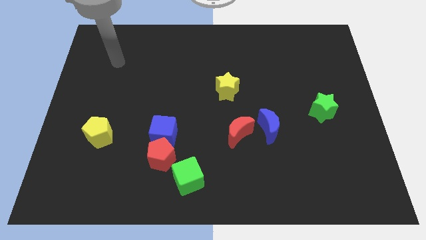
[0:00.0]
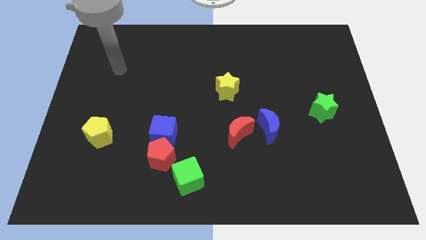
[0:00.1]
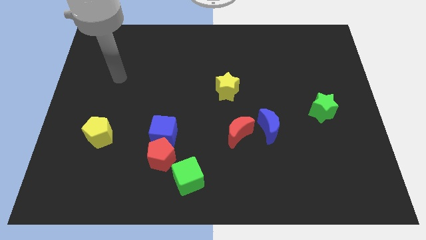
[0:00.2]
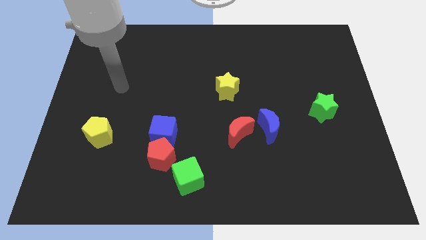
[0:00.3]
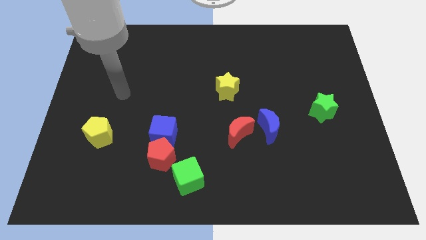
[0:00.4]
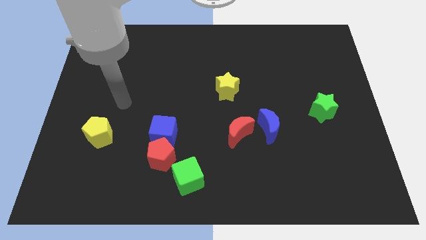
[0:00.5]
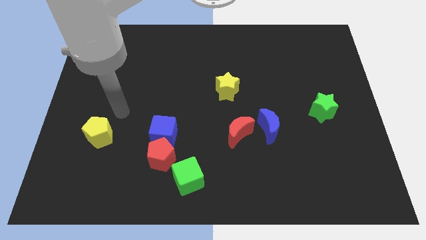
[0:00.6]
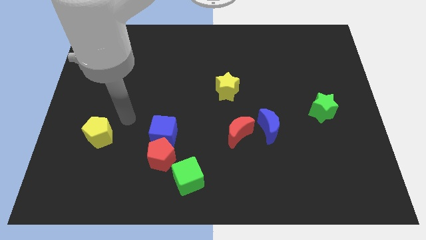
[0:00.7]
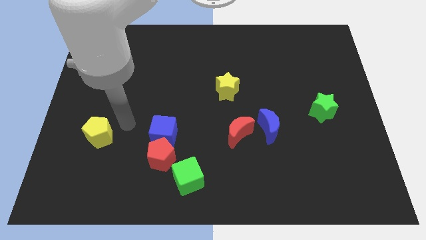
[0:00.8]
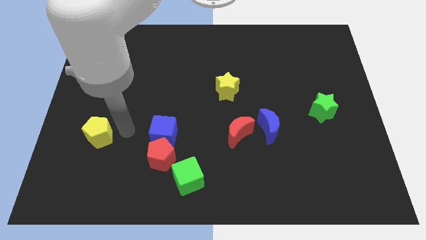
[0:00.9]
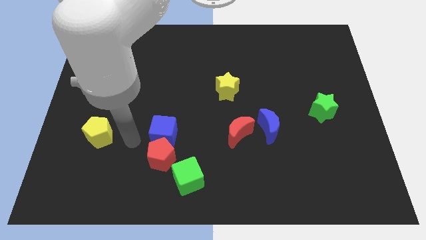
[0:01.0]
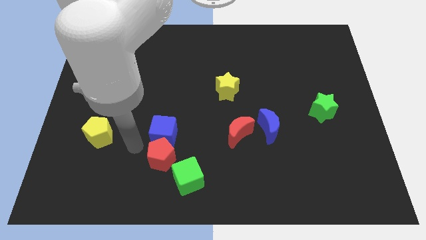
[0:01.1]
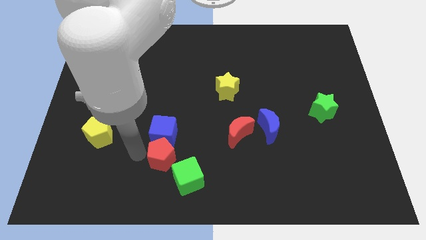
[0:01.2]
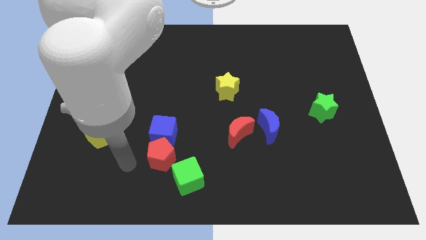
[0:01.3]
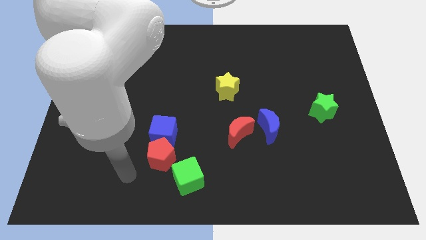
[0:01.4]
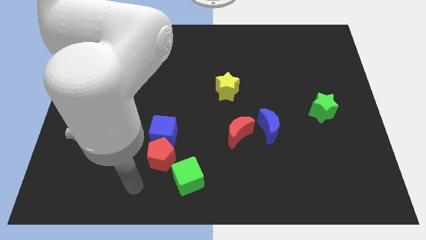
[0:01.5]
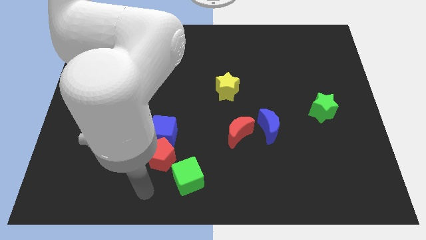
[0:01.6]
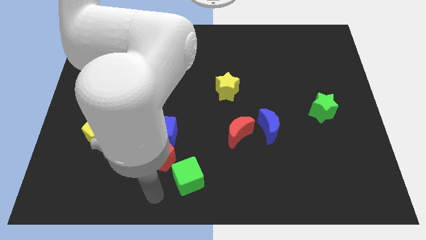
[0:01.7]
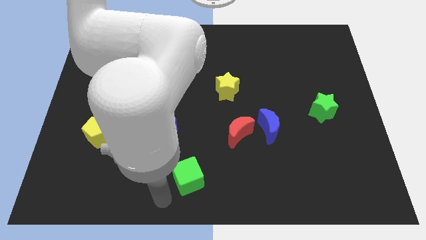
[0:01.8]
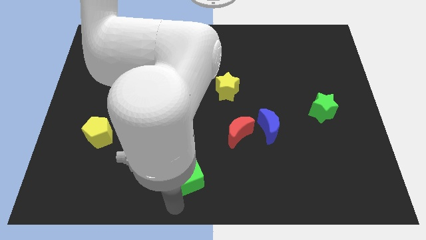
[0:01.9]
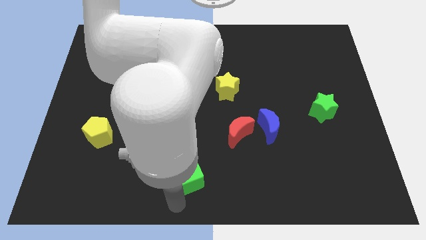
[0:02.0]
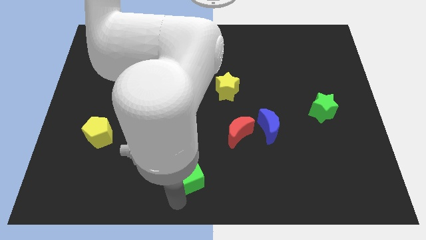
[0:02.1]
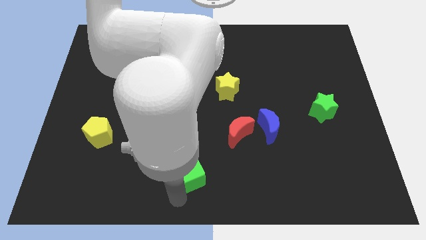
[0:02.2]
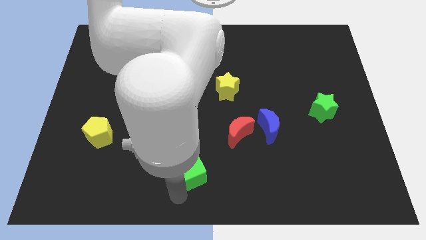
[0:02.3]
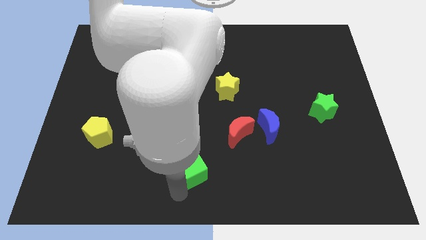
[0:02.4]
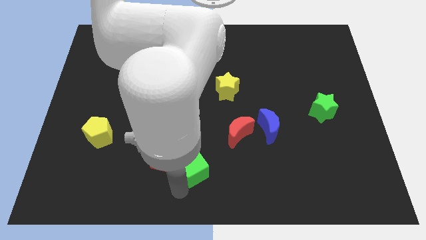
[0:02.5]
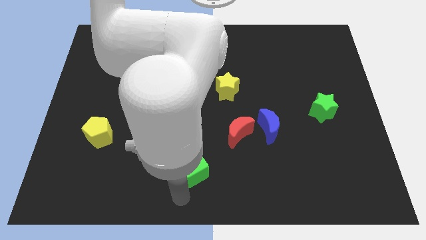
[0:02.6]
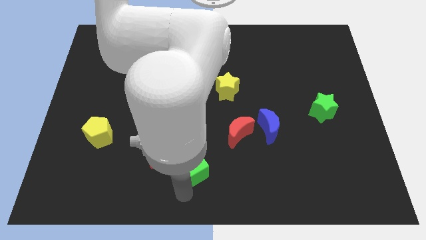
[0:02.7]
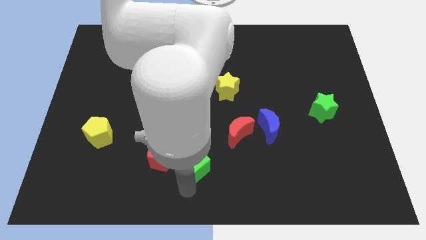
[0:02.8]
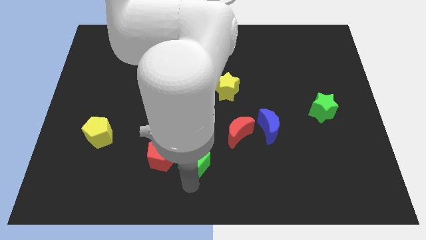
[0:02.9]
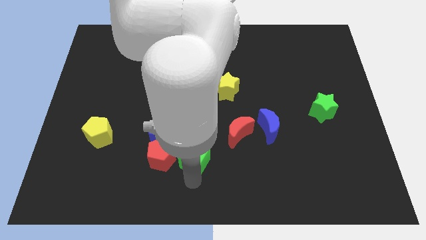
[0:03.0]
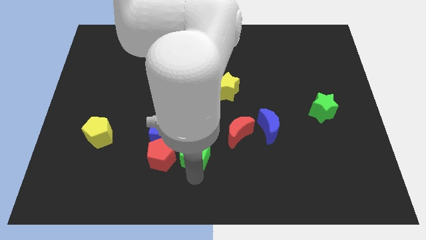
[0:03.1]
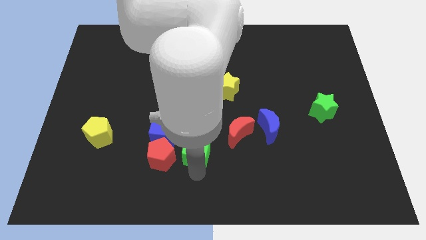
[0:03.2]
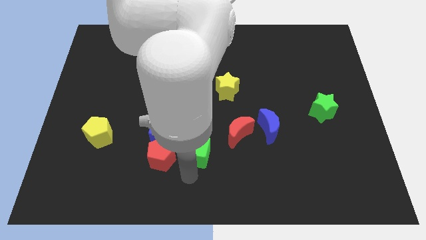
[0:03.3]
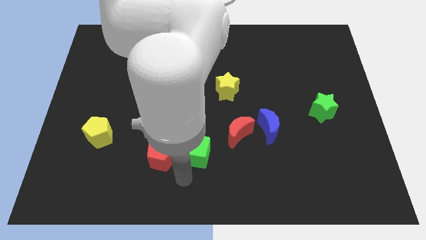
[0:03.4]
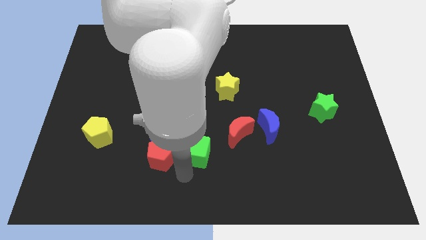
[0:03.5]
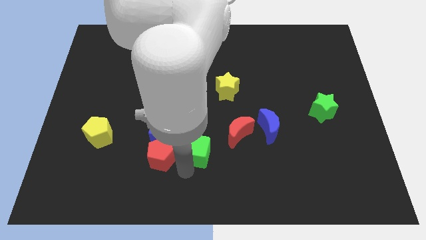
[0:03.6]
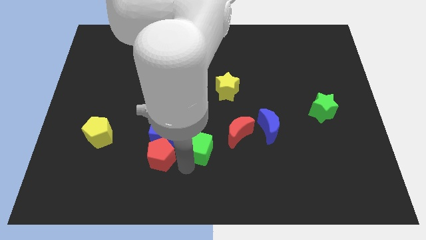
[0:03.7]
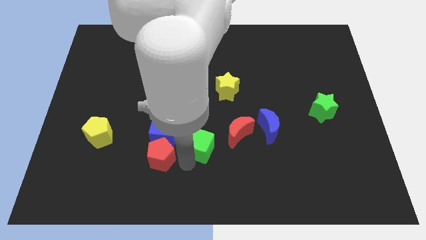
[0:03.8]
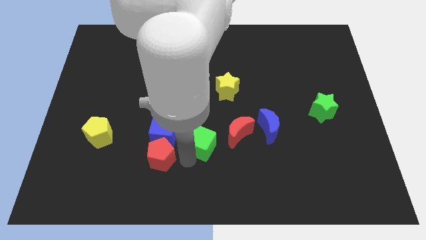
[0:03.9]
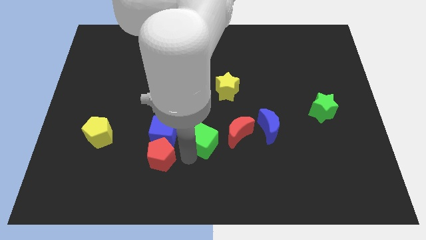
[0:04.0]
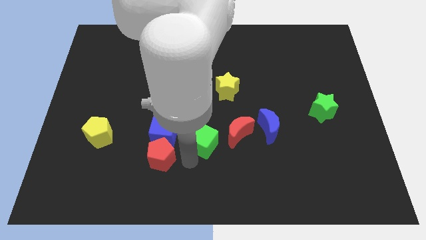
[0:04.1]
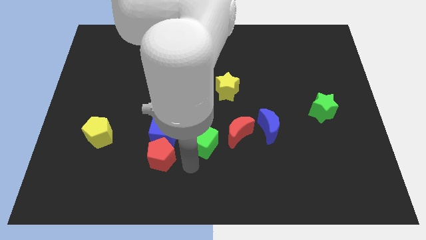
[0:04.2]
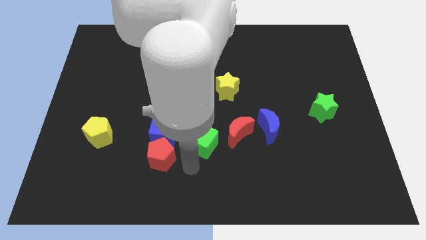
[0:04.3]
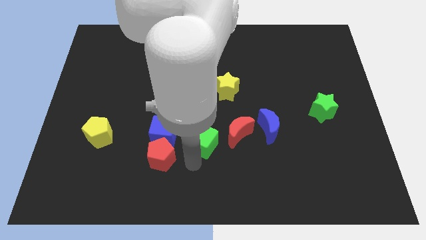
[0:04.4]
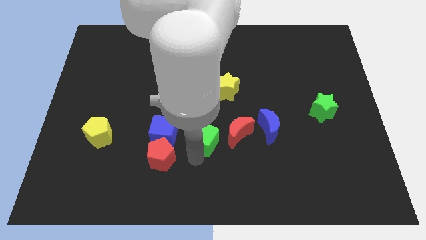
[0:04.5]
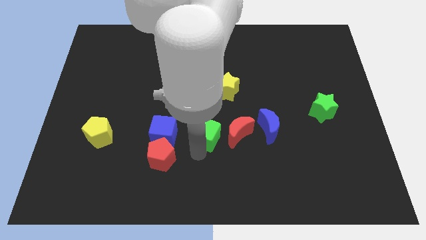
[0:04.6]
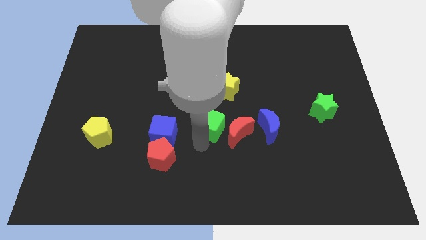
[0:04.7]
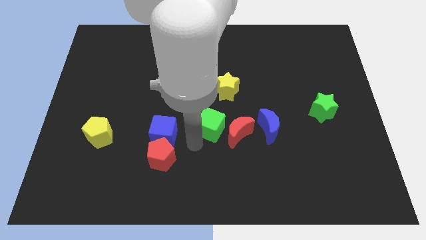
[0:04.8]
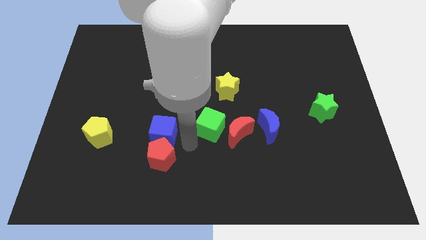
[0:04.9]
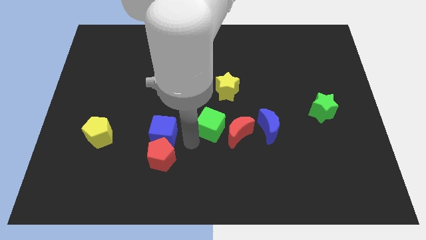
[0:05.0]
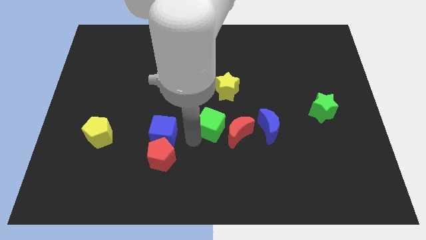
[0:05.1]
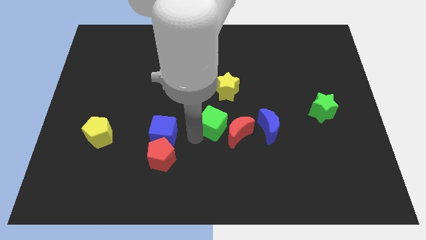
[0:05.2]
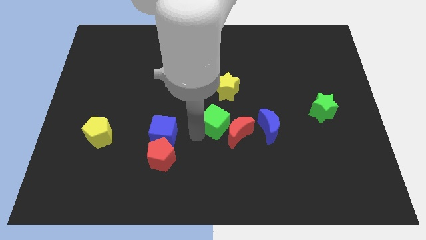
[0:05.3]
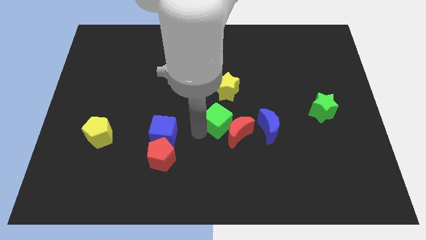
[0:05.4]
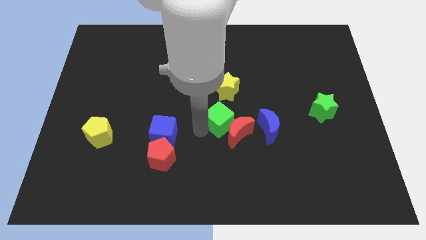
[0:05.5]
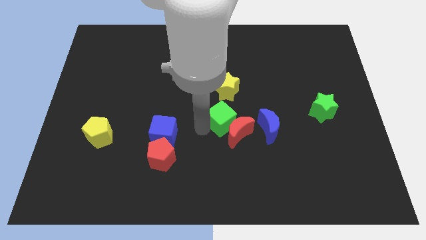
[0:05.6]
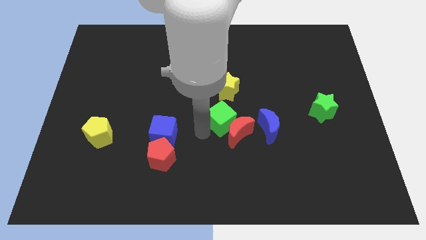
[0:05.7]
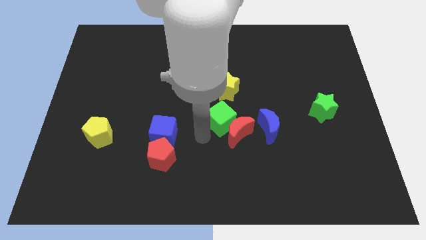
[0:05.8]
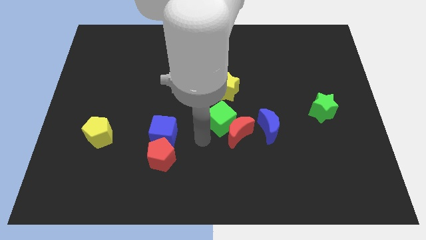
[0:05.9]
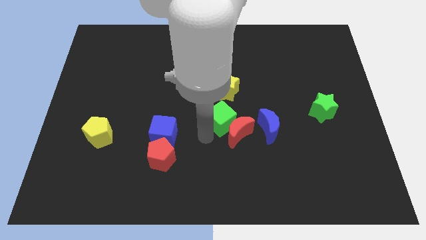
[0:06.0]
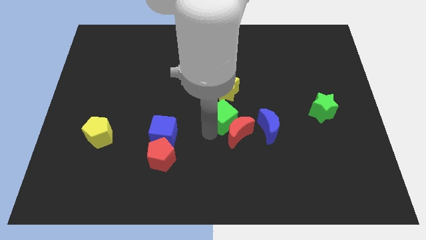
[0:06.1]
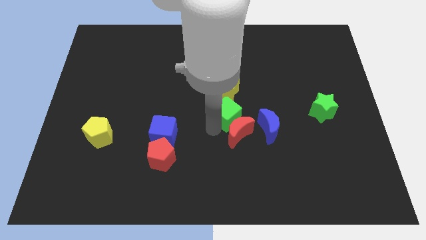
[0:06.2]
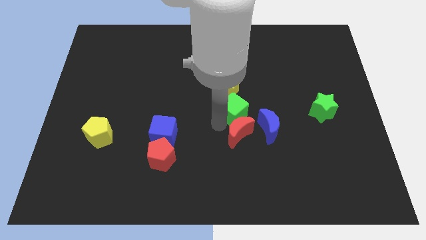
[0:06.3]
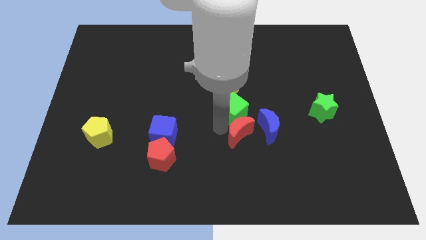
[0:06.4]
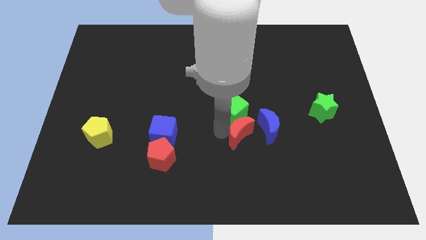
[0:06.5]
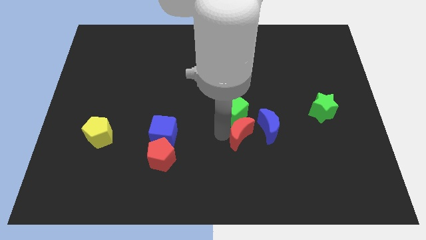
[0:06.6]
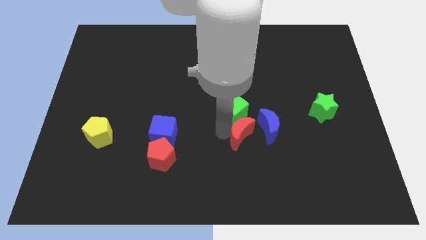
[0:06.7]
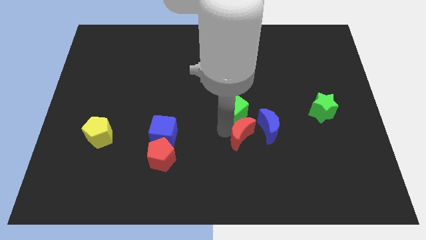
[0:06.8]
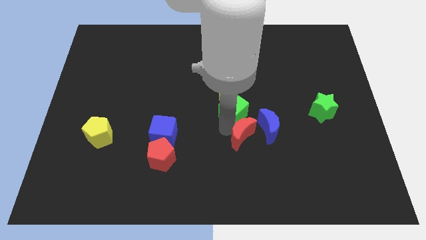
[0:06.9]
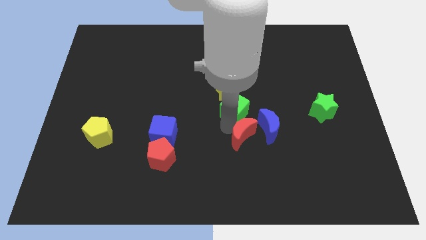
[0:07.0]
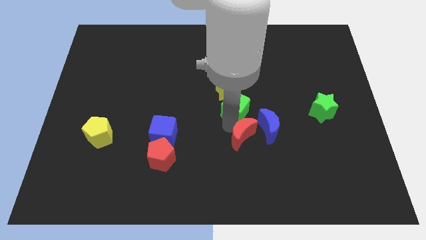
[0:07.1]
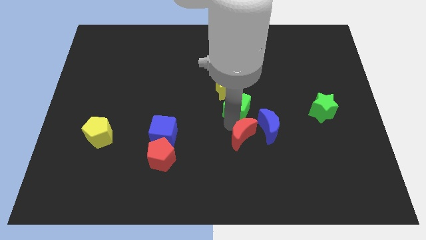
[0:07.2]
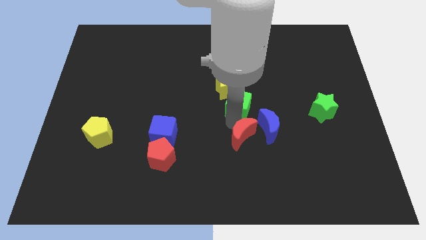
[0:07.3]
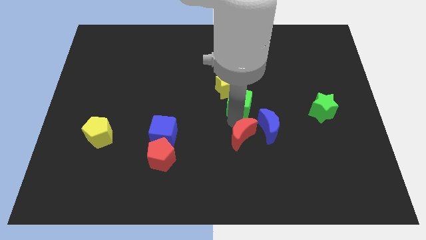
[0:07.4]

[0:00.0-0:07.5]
slide the green cube up and then right

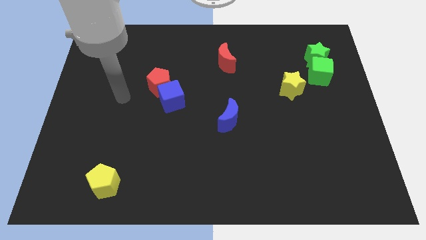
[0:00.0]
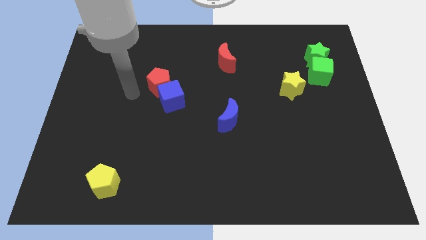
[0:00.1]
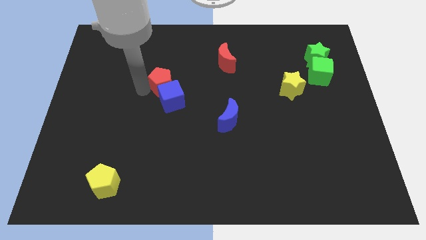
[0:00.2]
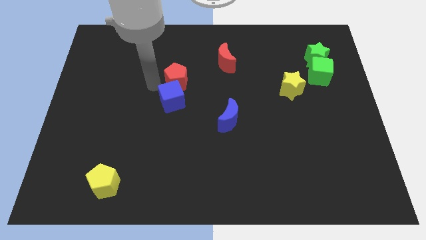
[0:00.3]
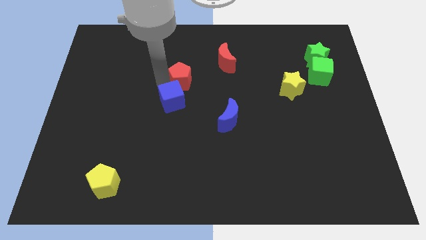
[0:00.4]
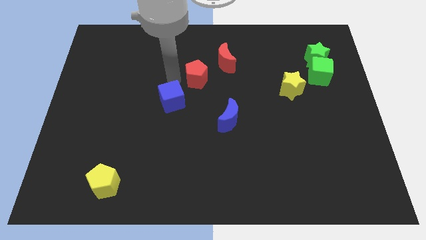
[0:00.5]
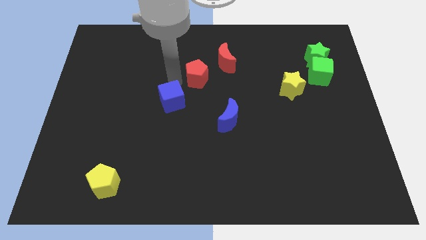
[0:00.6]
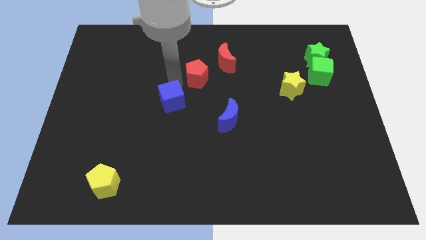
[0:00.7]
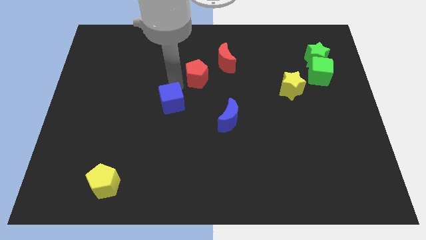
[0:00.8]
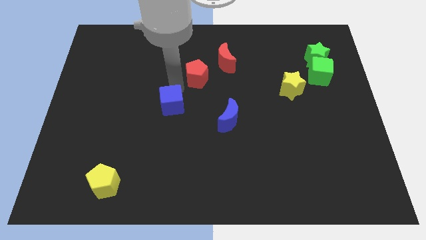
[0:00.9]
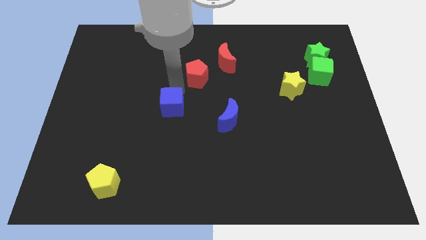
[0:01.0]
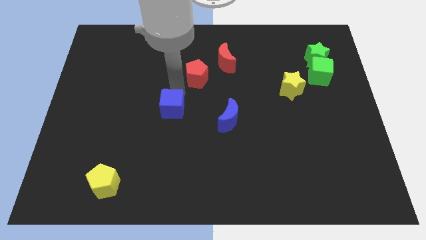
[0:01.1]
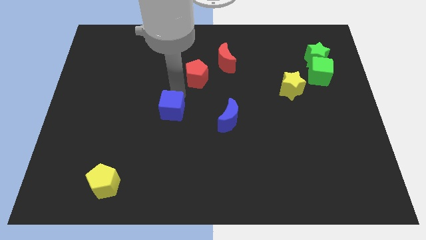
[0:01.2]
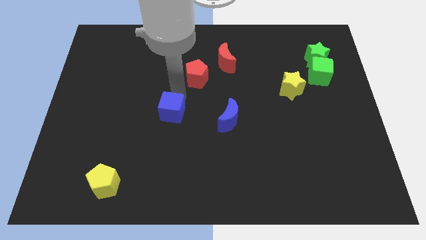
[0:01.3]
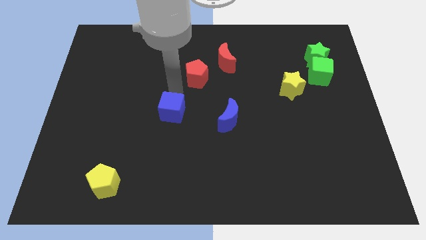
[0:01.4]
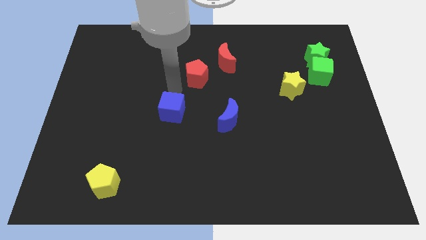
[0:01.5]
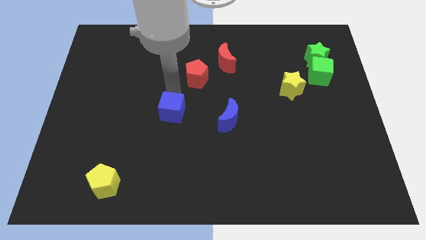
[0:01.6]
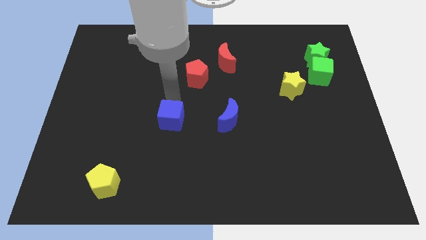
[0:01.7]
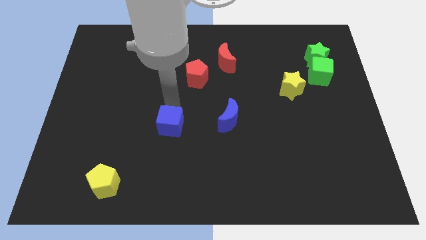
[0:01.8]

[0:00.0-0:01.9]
push the blue cube a bit down
